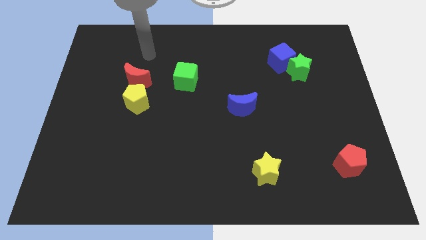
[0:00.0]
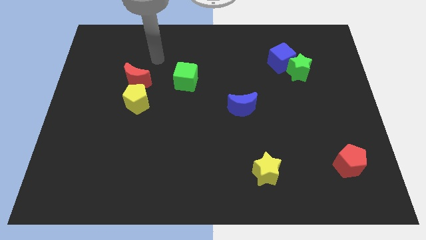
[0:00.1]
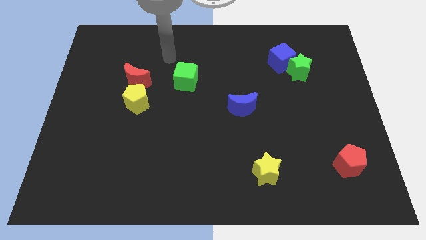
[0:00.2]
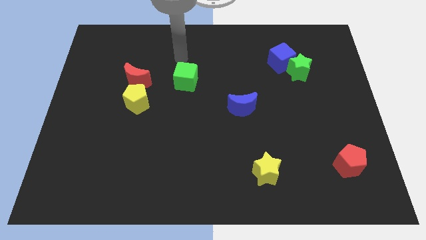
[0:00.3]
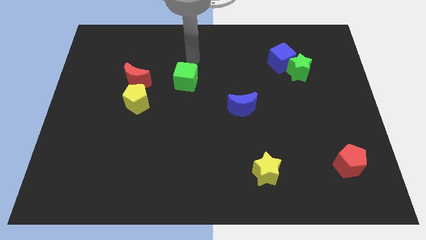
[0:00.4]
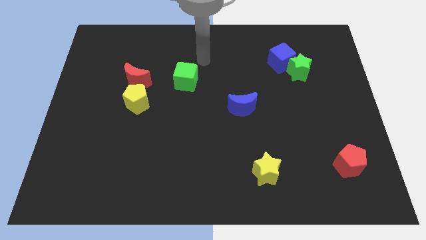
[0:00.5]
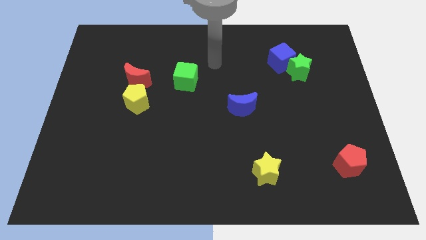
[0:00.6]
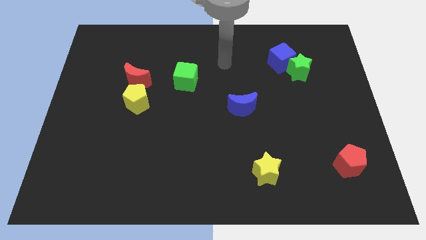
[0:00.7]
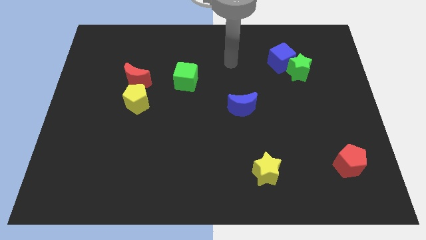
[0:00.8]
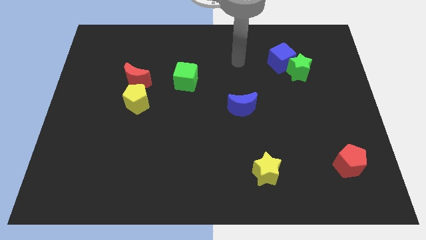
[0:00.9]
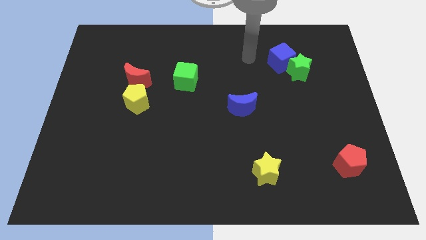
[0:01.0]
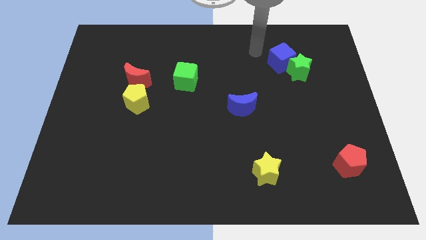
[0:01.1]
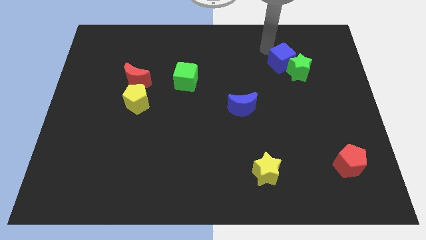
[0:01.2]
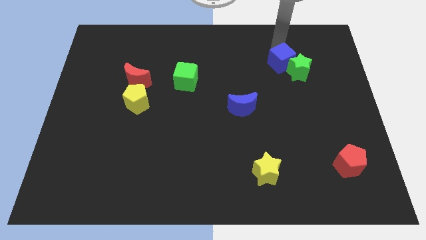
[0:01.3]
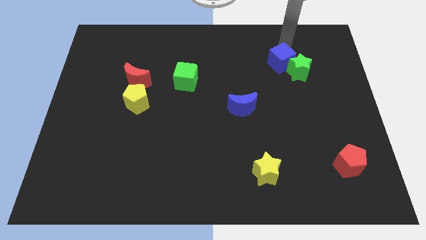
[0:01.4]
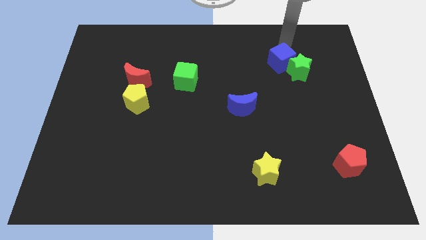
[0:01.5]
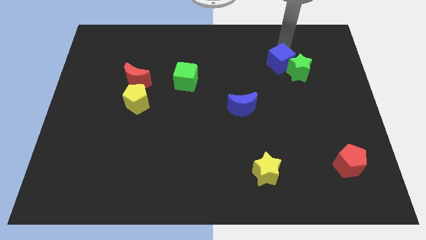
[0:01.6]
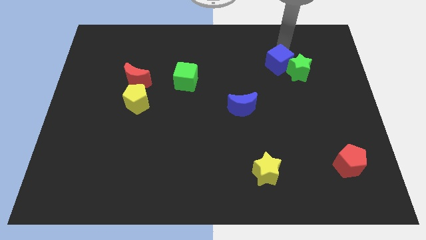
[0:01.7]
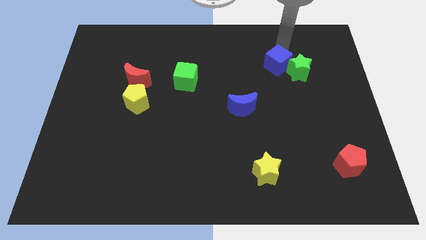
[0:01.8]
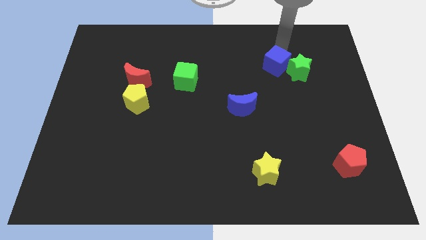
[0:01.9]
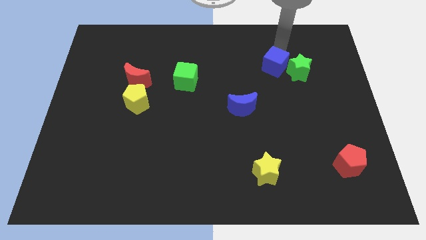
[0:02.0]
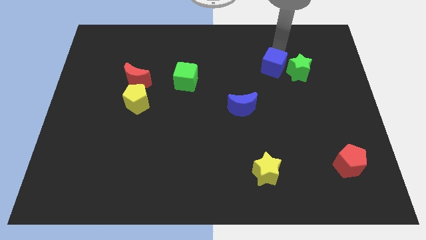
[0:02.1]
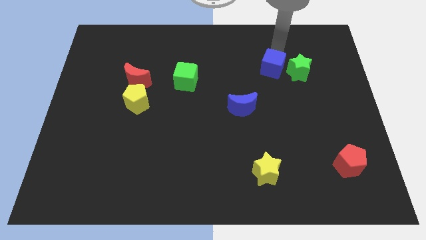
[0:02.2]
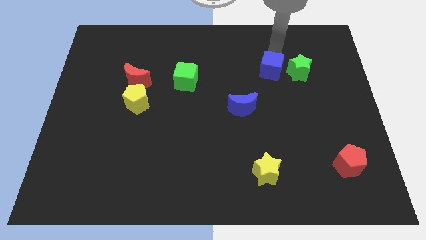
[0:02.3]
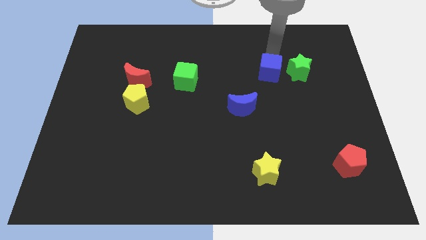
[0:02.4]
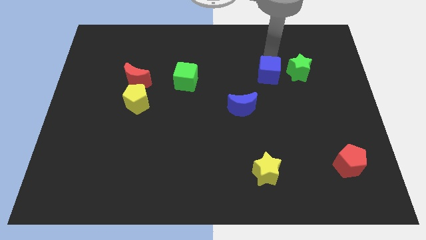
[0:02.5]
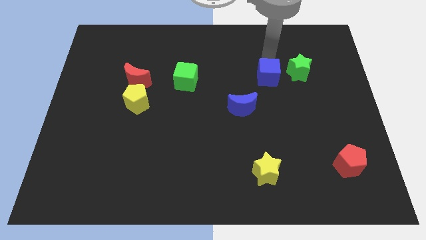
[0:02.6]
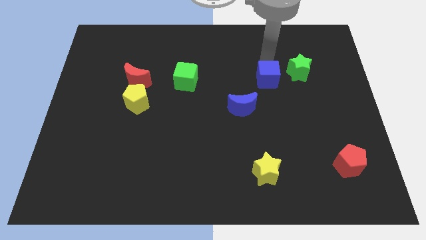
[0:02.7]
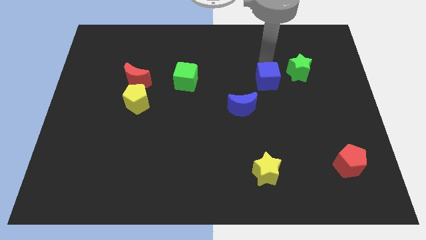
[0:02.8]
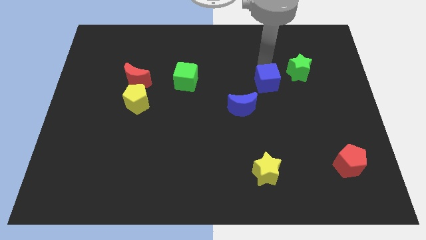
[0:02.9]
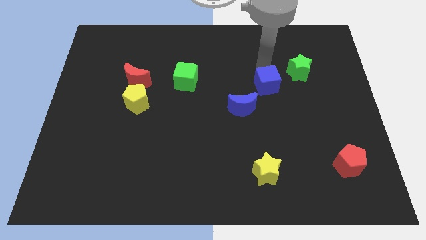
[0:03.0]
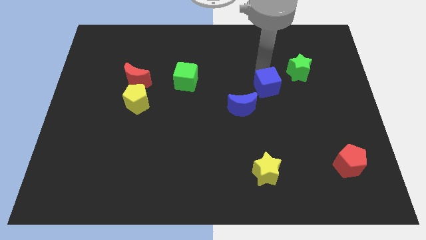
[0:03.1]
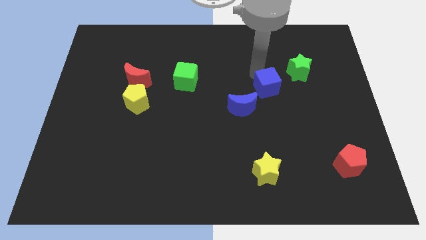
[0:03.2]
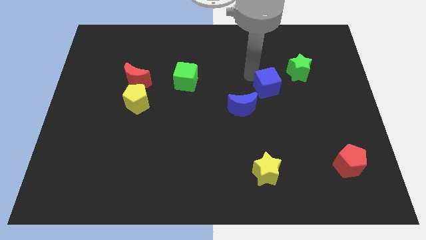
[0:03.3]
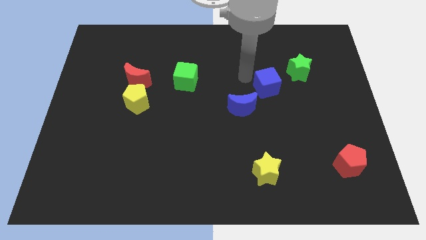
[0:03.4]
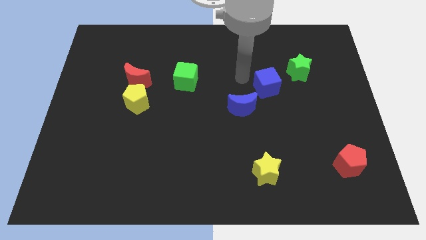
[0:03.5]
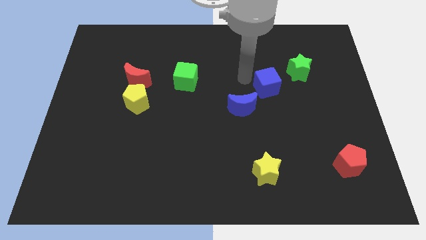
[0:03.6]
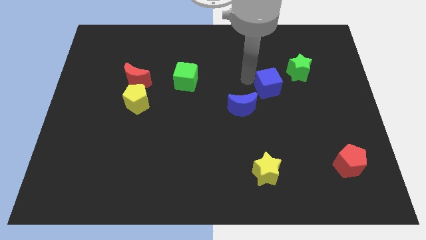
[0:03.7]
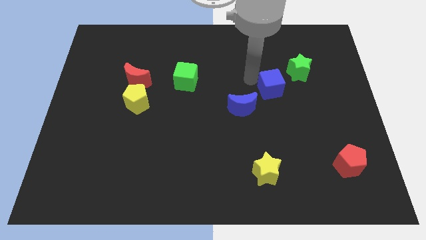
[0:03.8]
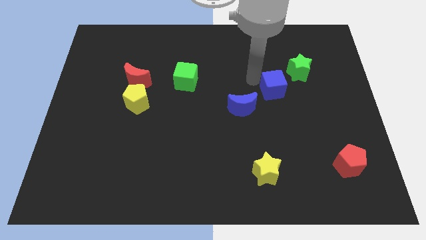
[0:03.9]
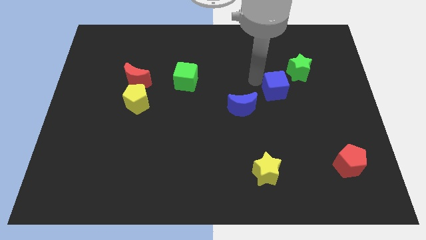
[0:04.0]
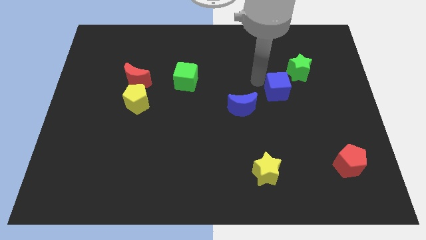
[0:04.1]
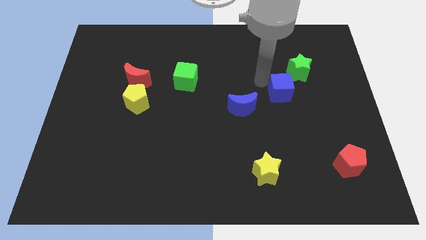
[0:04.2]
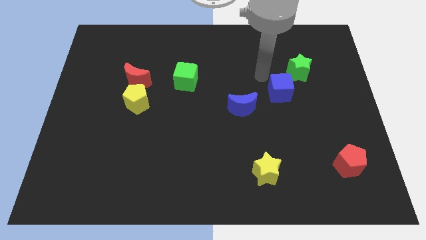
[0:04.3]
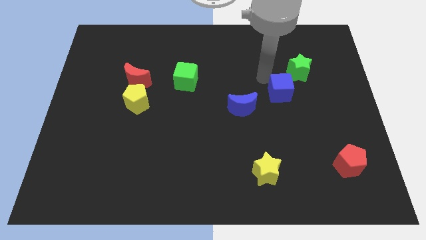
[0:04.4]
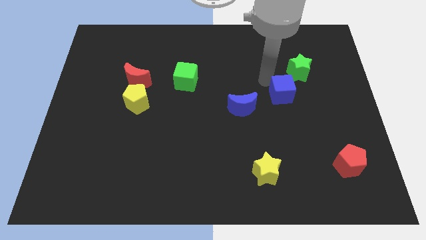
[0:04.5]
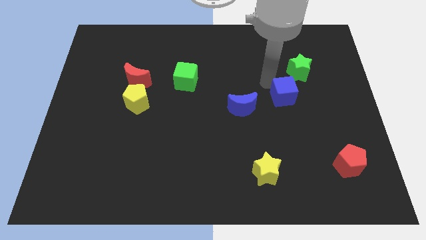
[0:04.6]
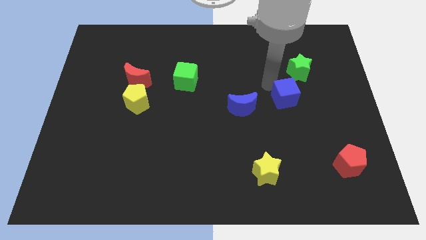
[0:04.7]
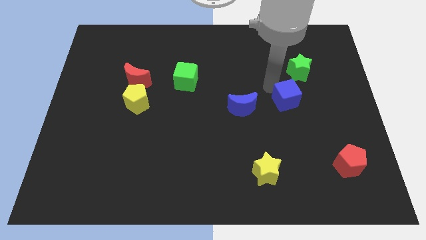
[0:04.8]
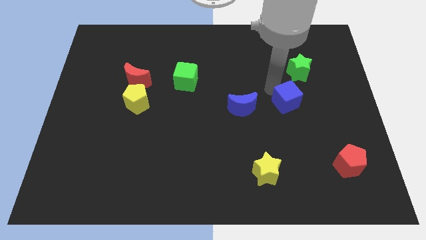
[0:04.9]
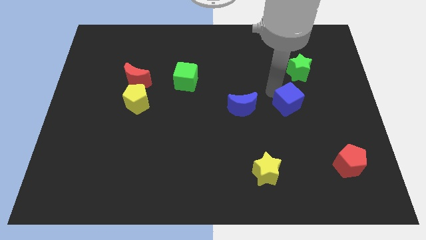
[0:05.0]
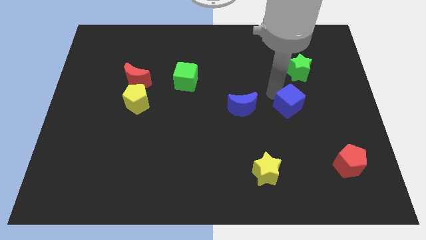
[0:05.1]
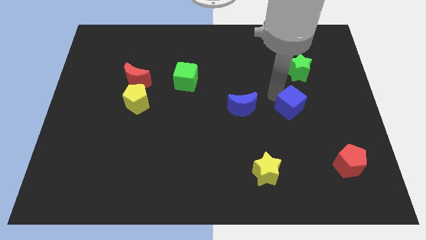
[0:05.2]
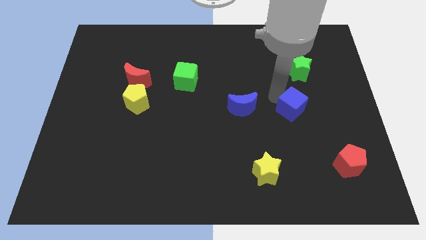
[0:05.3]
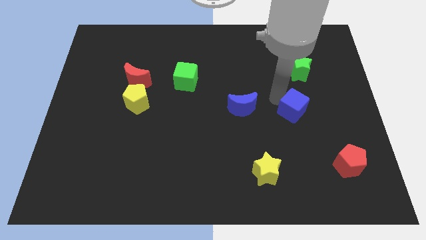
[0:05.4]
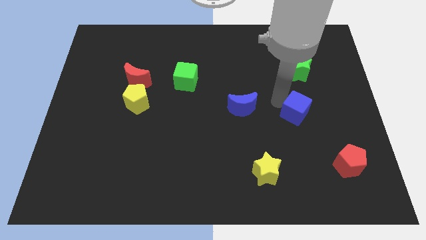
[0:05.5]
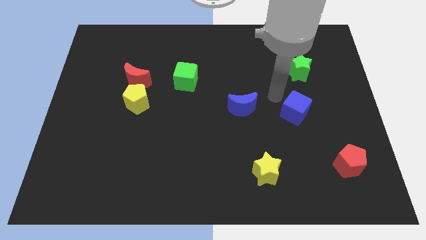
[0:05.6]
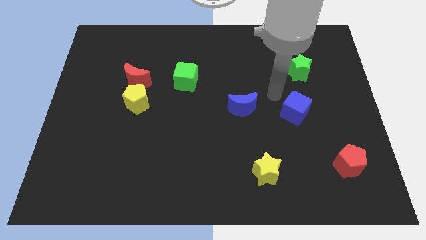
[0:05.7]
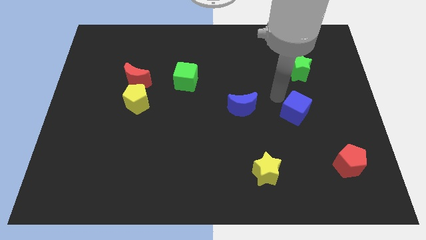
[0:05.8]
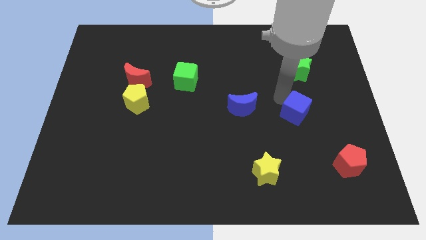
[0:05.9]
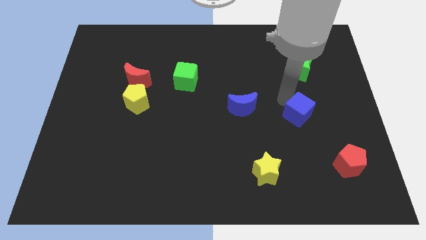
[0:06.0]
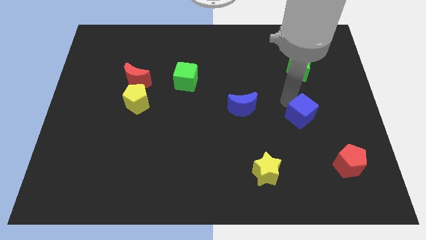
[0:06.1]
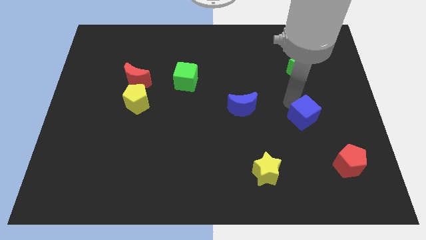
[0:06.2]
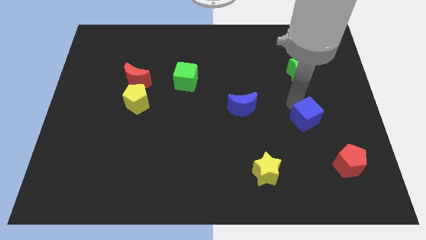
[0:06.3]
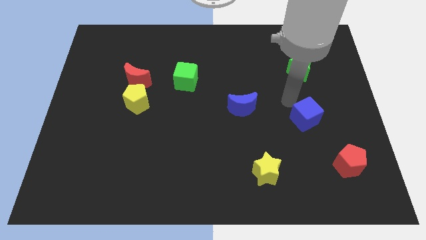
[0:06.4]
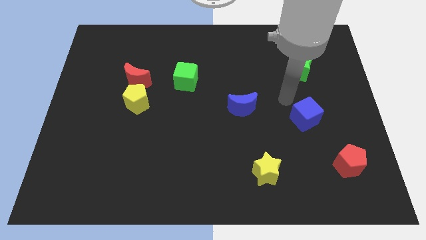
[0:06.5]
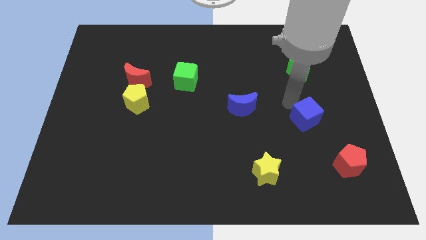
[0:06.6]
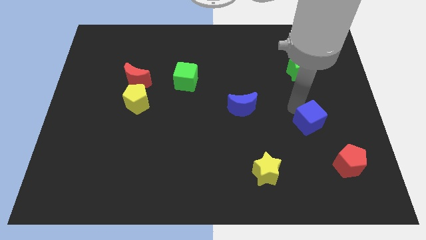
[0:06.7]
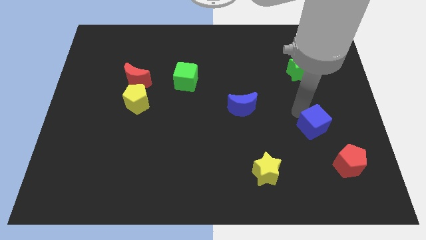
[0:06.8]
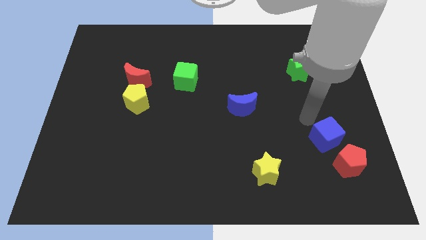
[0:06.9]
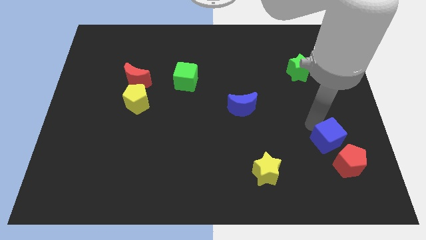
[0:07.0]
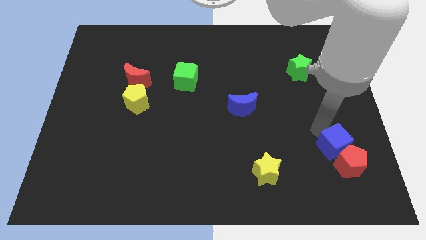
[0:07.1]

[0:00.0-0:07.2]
push the blue cube close to the red pentagon
